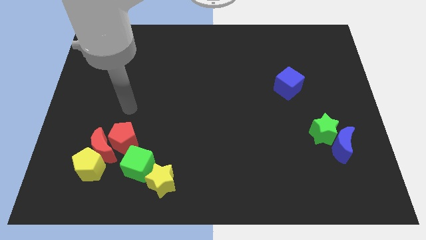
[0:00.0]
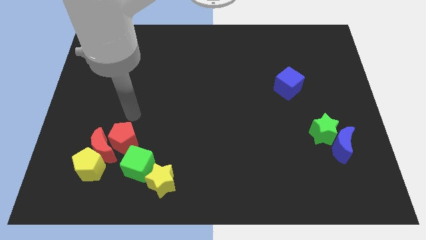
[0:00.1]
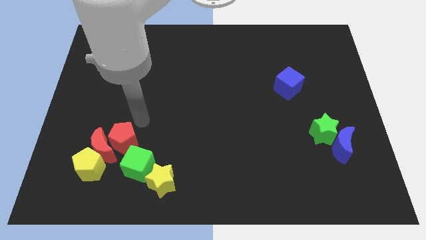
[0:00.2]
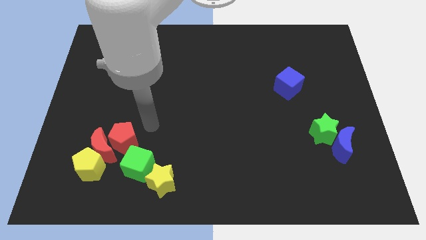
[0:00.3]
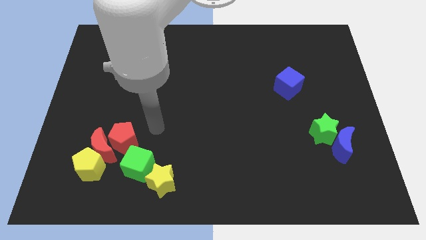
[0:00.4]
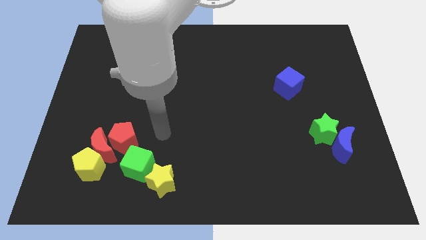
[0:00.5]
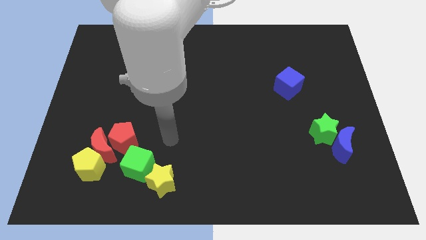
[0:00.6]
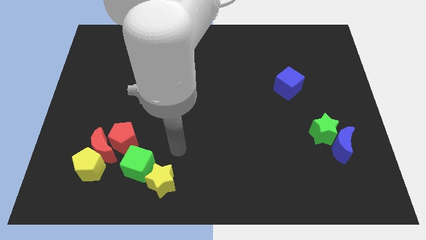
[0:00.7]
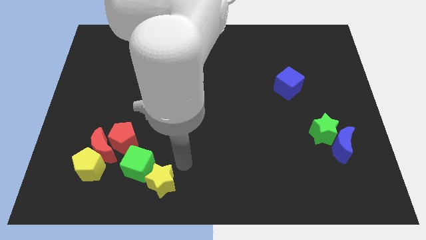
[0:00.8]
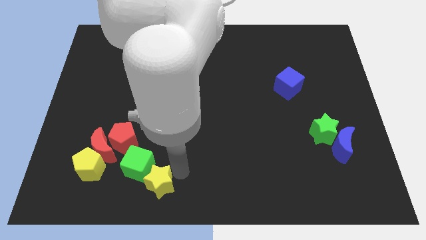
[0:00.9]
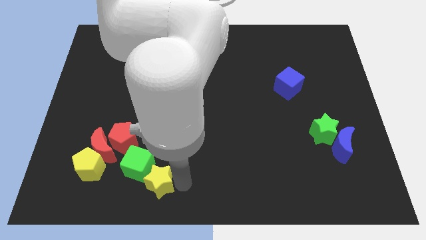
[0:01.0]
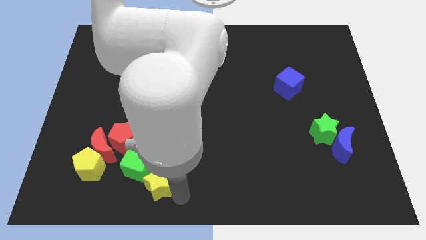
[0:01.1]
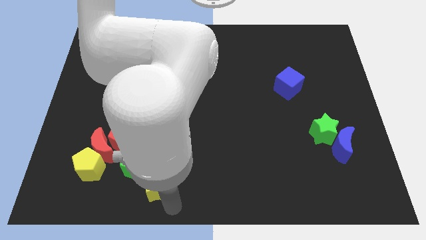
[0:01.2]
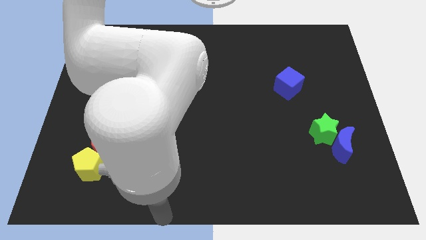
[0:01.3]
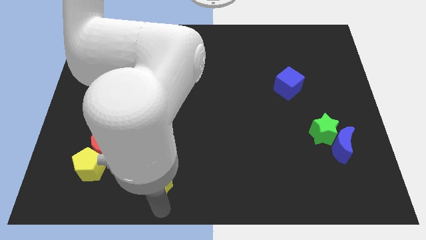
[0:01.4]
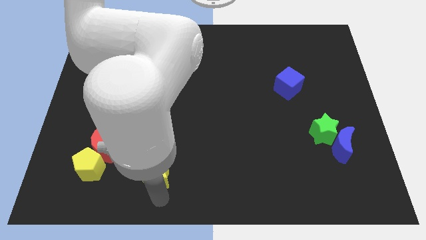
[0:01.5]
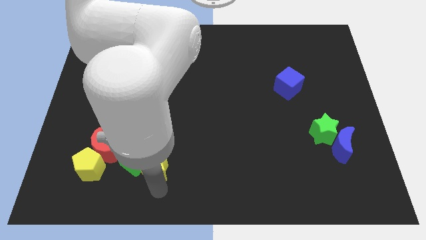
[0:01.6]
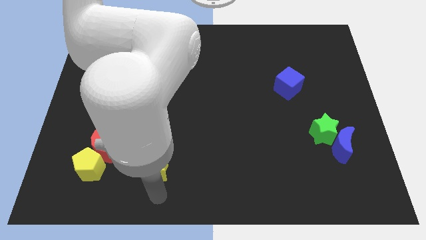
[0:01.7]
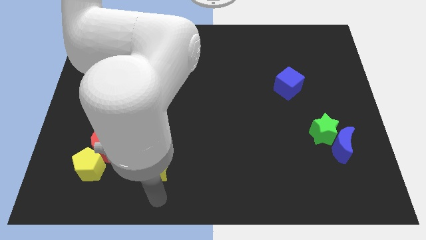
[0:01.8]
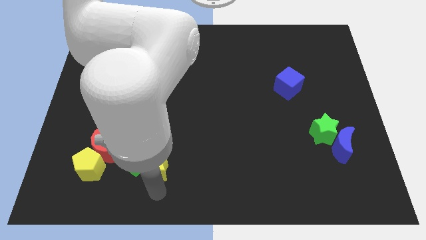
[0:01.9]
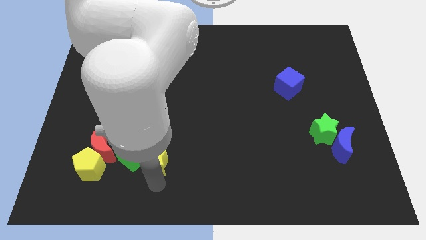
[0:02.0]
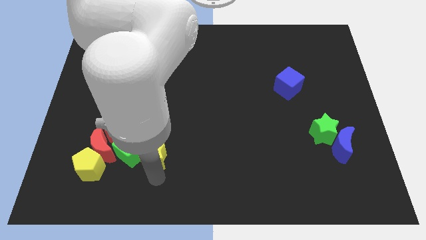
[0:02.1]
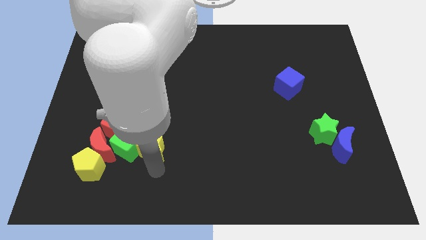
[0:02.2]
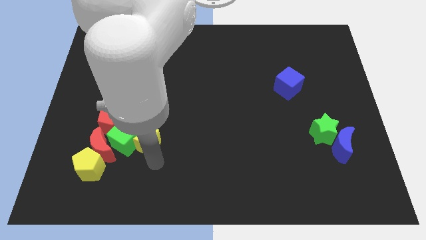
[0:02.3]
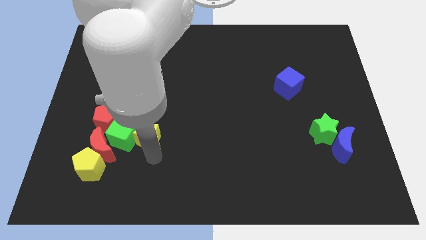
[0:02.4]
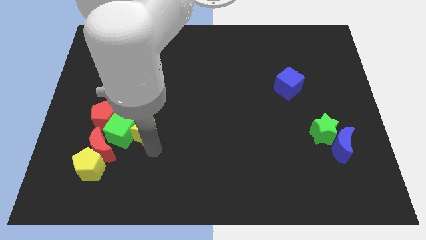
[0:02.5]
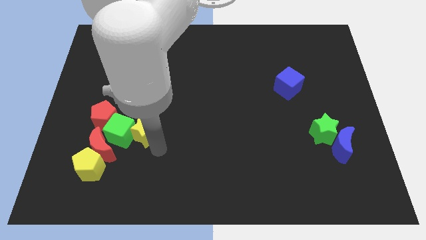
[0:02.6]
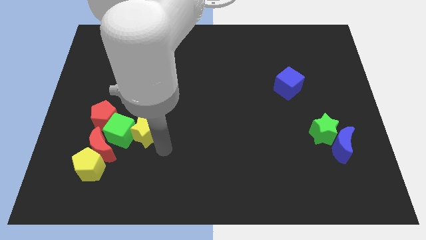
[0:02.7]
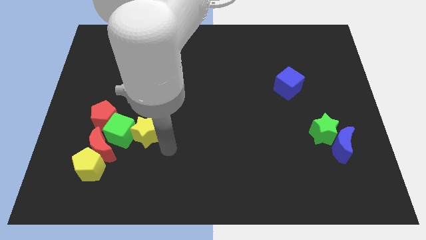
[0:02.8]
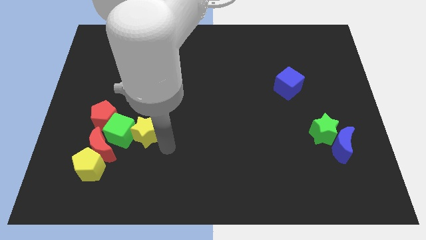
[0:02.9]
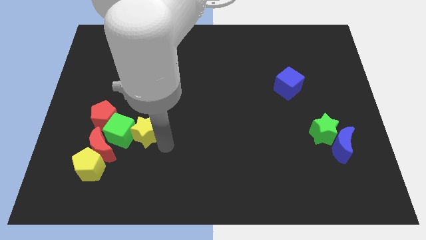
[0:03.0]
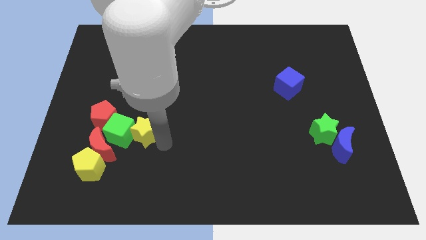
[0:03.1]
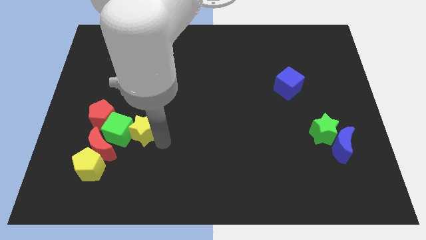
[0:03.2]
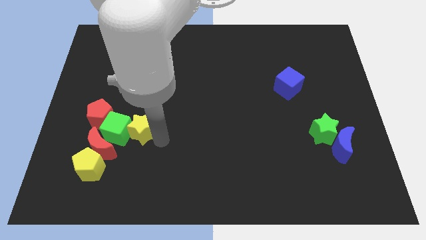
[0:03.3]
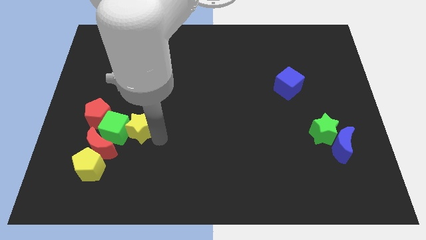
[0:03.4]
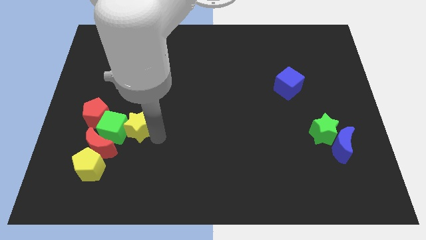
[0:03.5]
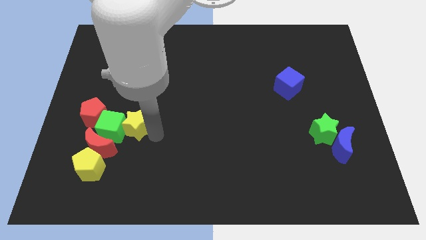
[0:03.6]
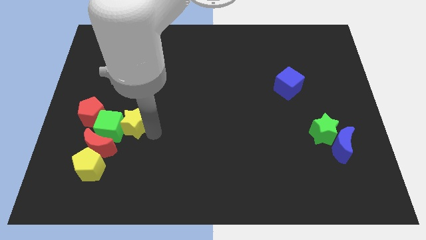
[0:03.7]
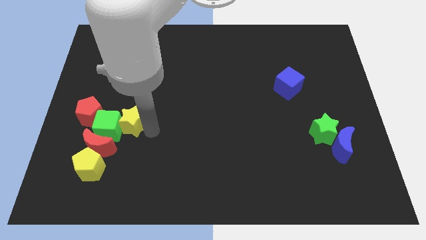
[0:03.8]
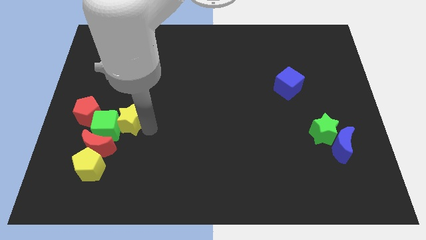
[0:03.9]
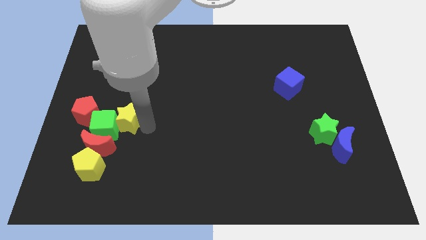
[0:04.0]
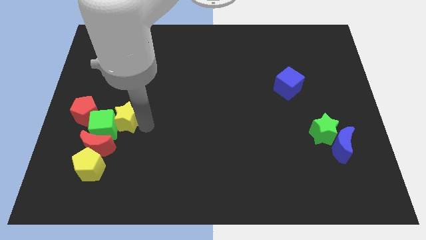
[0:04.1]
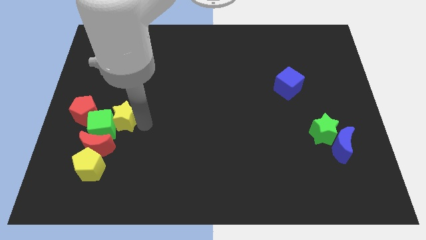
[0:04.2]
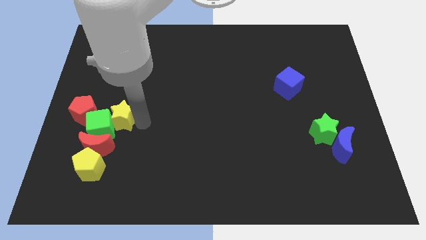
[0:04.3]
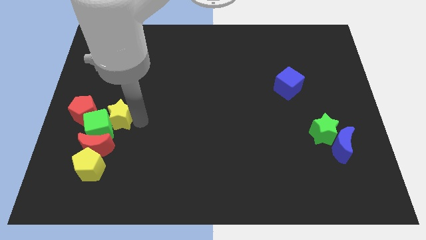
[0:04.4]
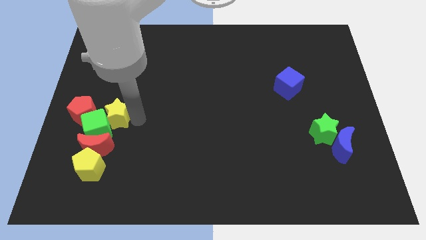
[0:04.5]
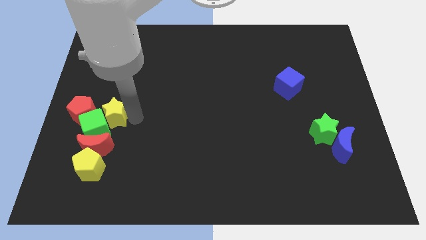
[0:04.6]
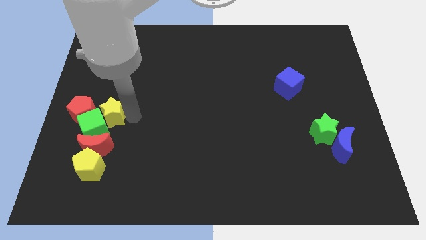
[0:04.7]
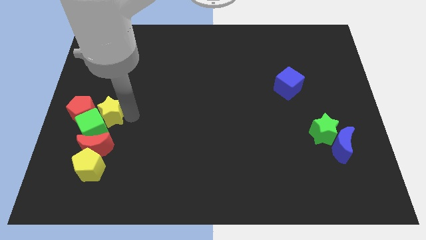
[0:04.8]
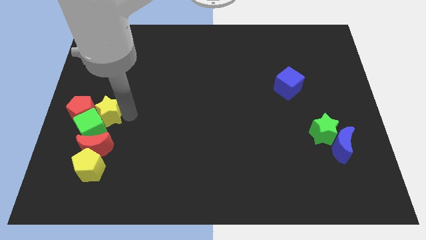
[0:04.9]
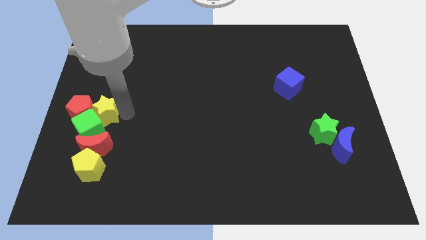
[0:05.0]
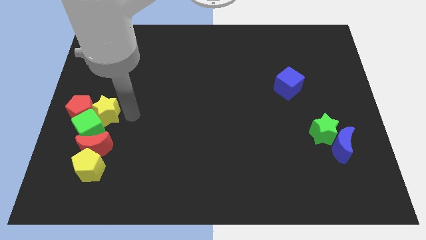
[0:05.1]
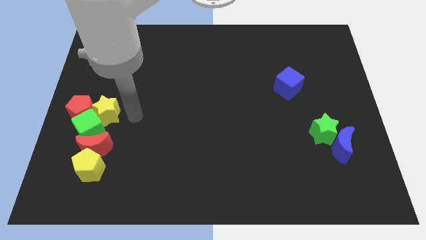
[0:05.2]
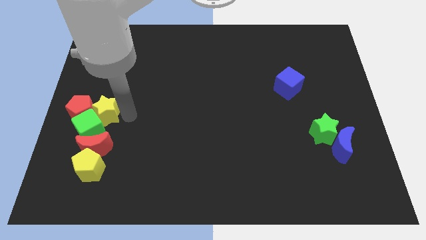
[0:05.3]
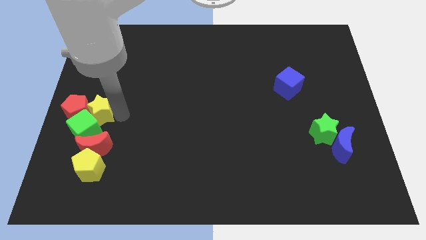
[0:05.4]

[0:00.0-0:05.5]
slide the yellow star to the left side

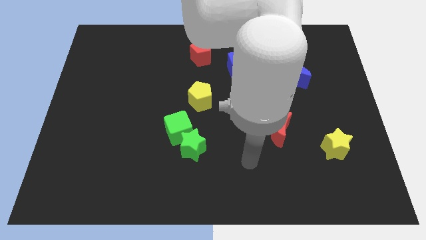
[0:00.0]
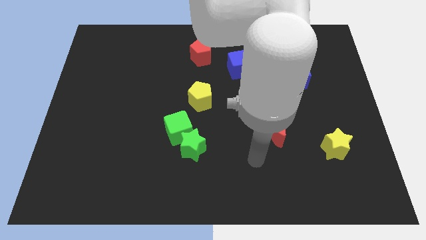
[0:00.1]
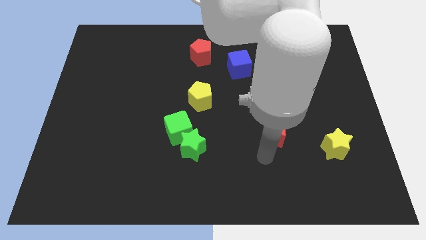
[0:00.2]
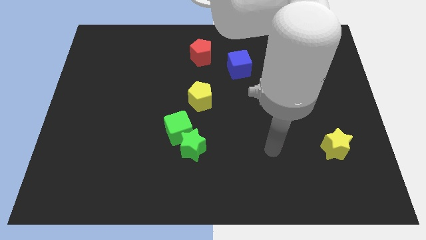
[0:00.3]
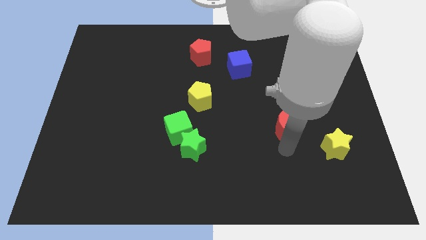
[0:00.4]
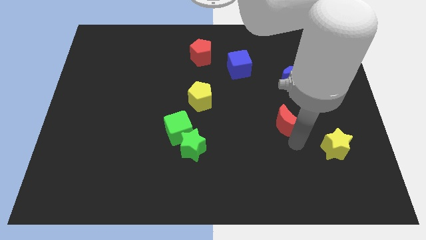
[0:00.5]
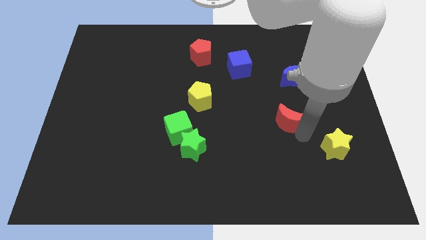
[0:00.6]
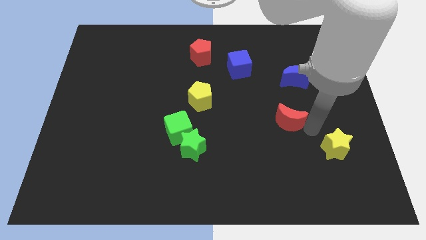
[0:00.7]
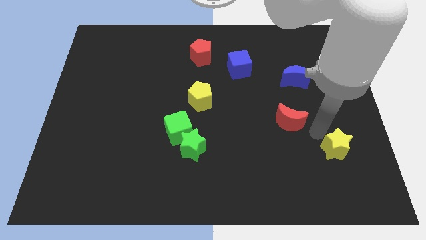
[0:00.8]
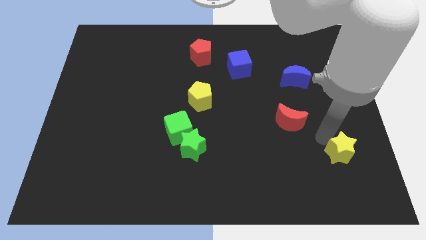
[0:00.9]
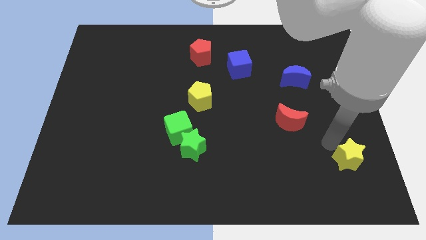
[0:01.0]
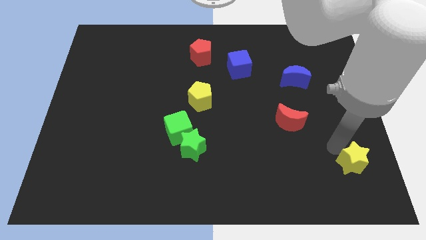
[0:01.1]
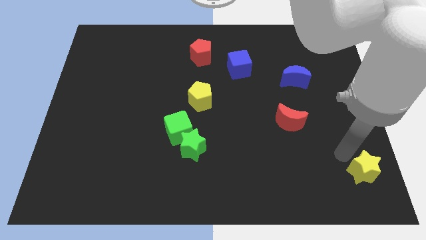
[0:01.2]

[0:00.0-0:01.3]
slide the yellow star to the lower right corner
